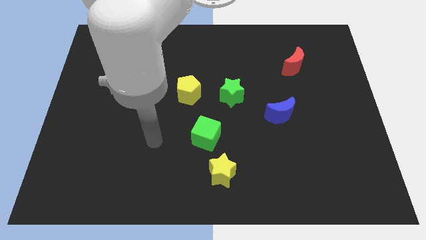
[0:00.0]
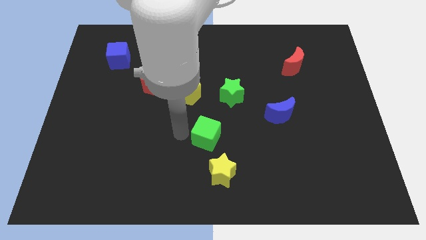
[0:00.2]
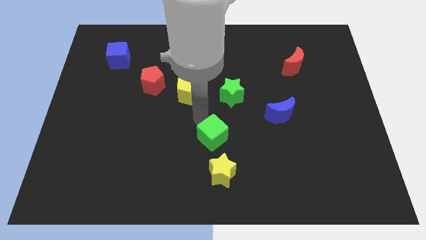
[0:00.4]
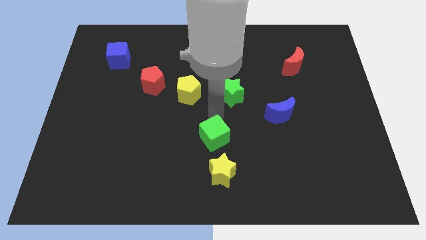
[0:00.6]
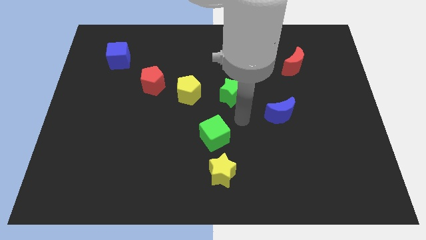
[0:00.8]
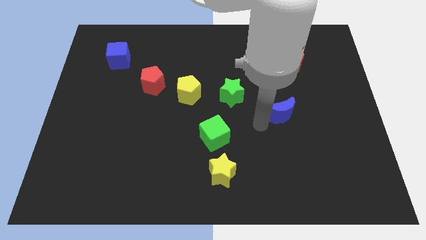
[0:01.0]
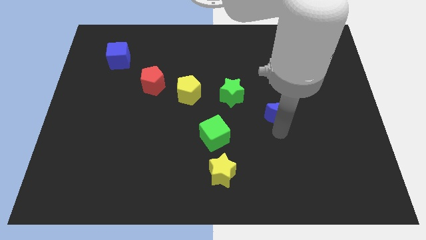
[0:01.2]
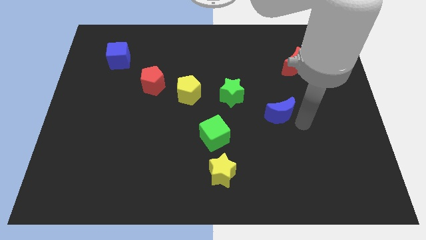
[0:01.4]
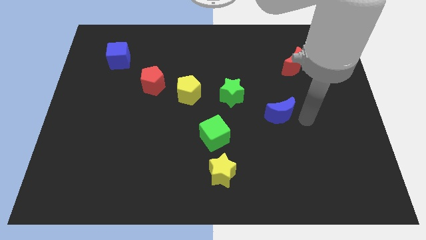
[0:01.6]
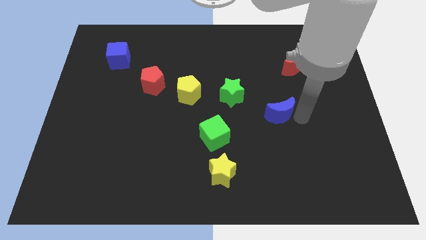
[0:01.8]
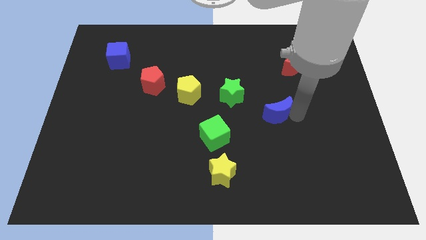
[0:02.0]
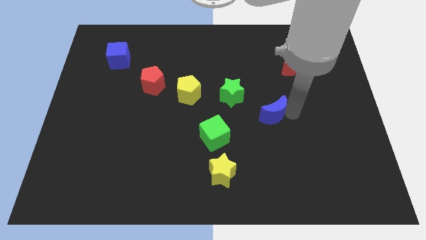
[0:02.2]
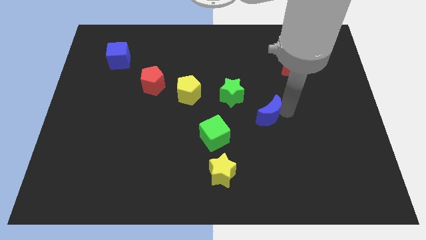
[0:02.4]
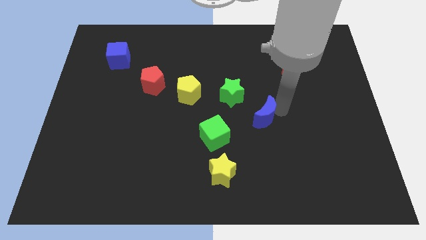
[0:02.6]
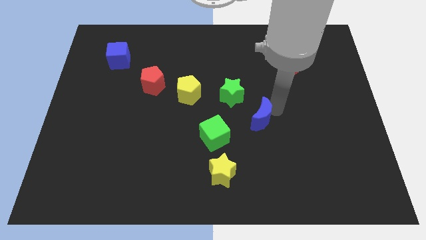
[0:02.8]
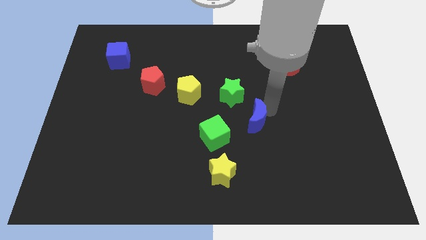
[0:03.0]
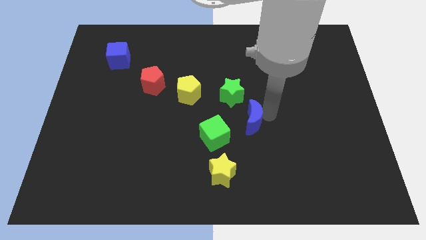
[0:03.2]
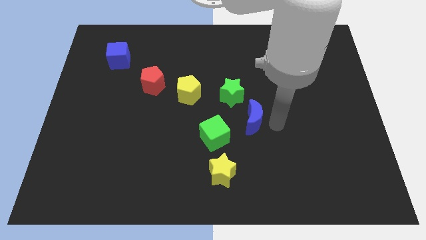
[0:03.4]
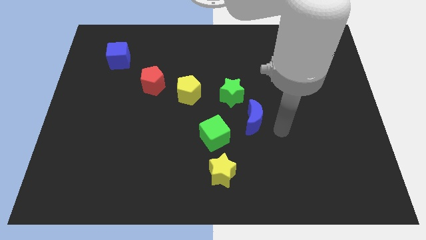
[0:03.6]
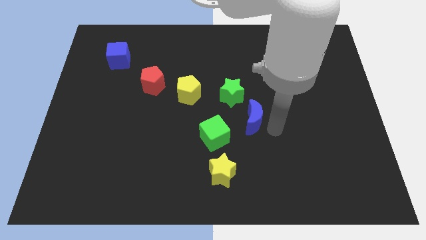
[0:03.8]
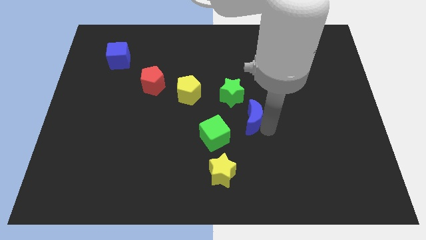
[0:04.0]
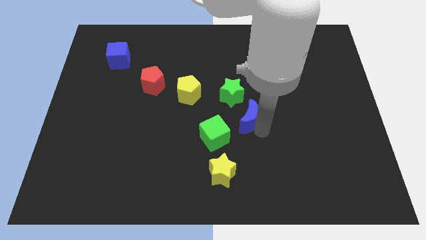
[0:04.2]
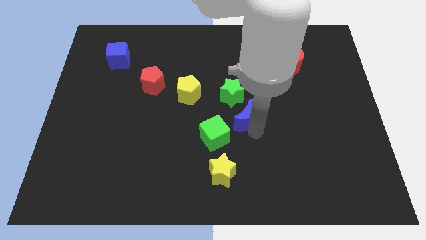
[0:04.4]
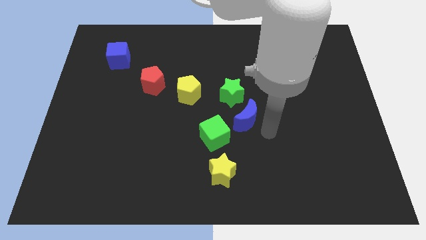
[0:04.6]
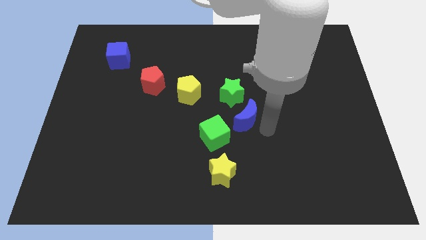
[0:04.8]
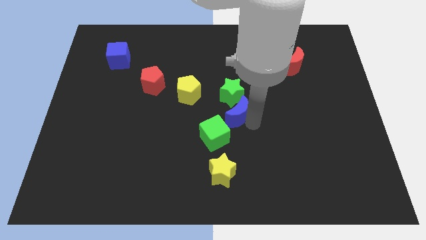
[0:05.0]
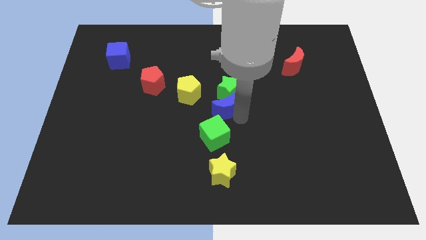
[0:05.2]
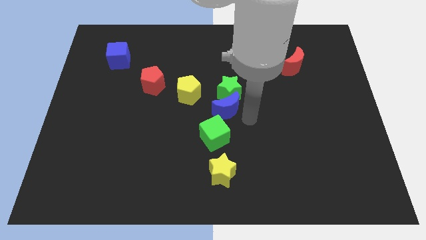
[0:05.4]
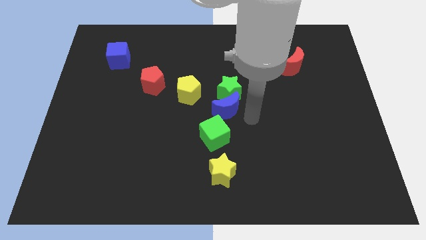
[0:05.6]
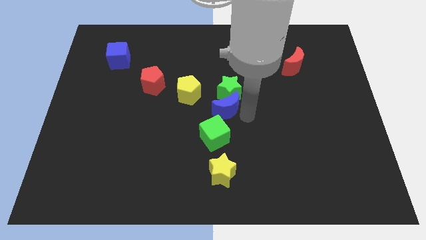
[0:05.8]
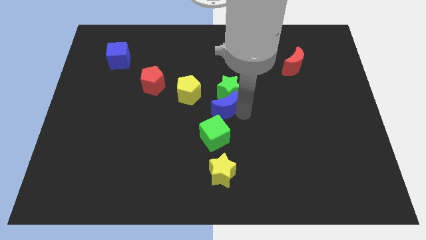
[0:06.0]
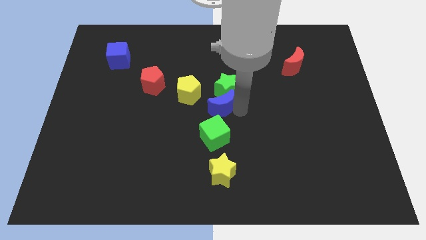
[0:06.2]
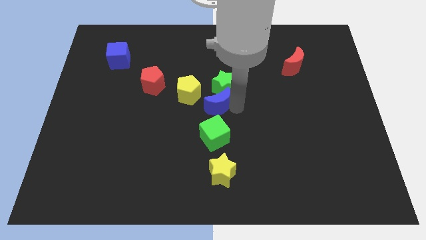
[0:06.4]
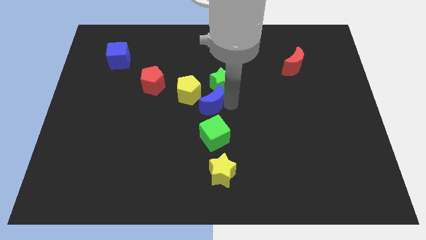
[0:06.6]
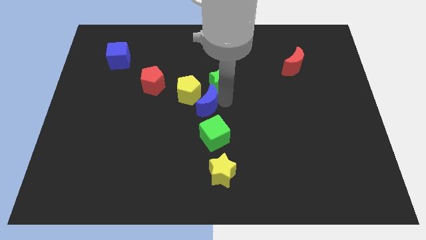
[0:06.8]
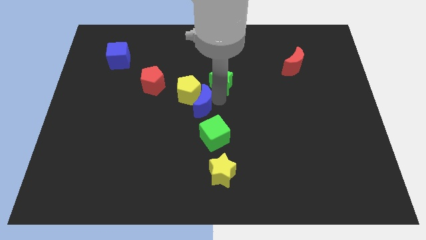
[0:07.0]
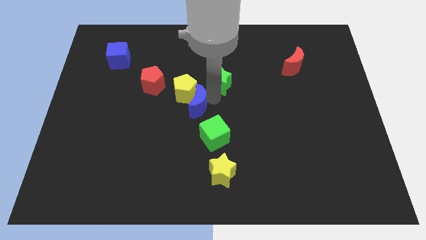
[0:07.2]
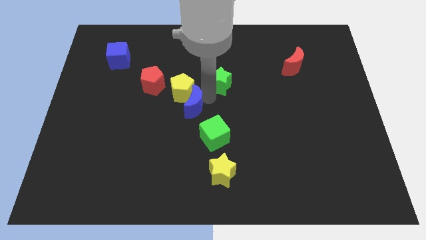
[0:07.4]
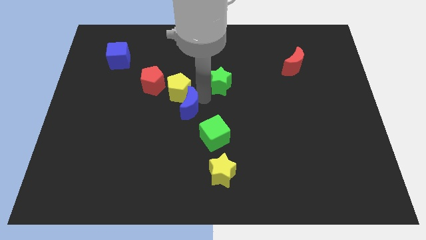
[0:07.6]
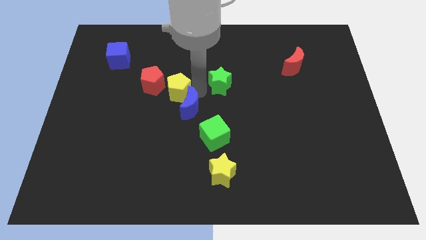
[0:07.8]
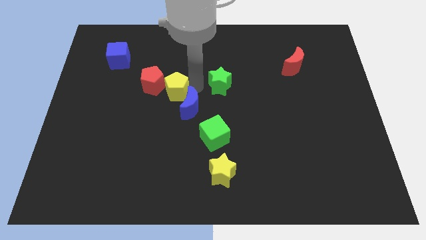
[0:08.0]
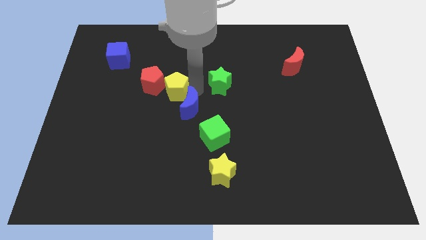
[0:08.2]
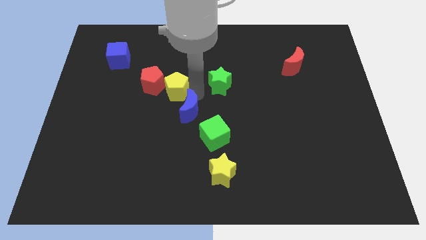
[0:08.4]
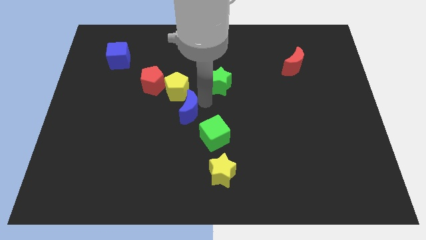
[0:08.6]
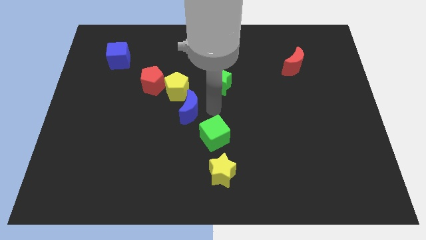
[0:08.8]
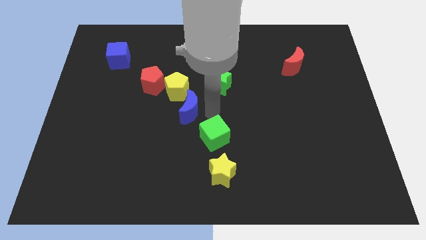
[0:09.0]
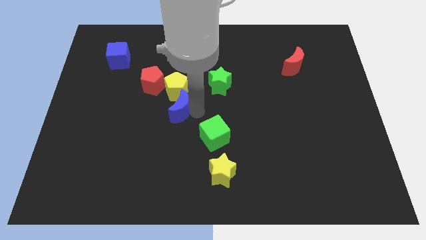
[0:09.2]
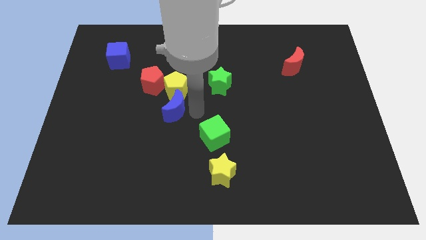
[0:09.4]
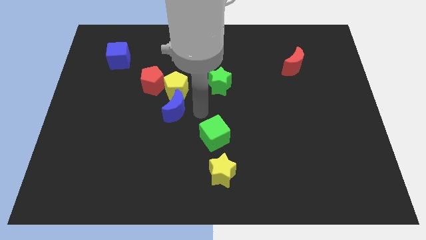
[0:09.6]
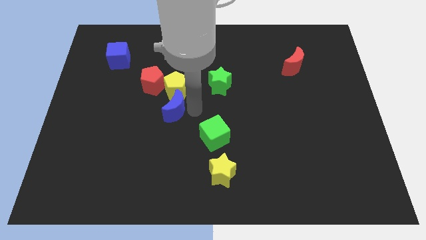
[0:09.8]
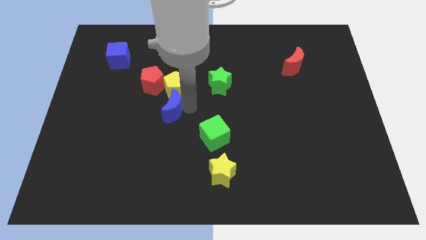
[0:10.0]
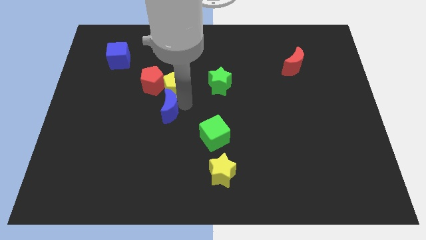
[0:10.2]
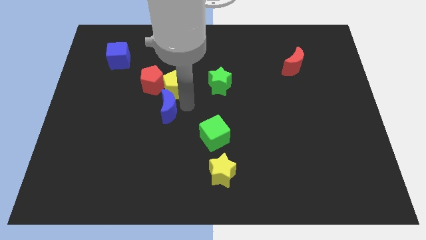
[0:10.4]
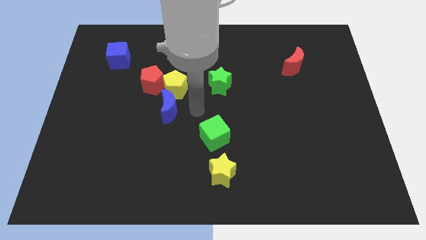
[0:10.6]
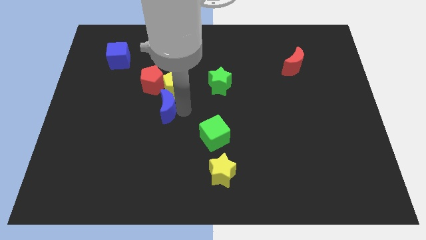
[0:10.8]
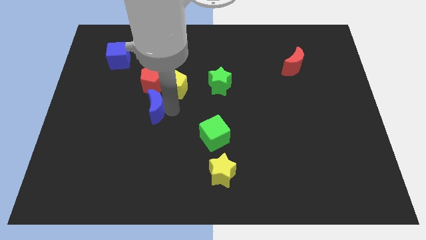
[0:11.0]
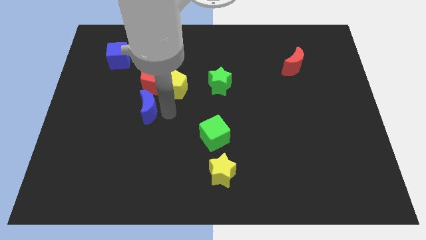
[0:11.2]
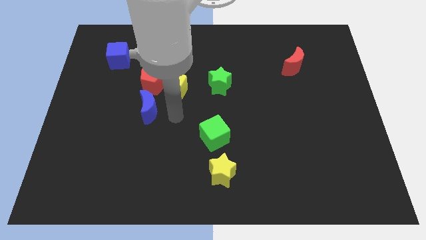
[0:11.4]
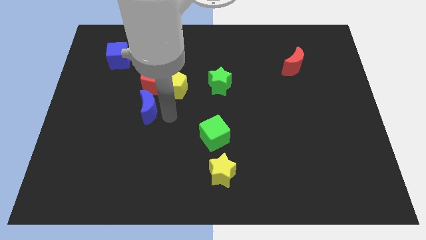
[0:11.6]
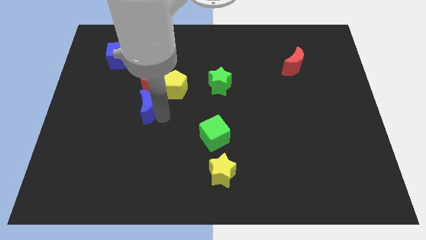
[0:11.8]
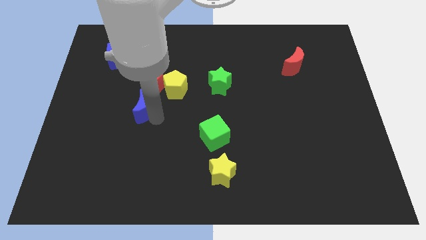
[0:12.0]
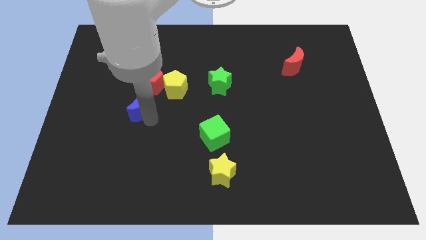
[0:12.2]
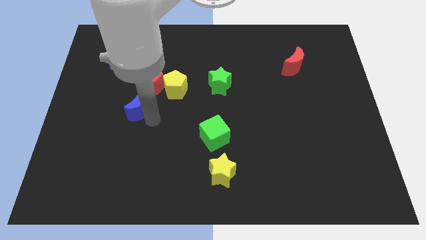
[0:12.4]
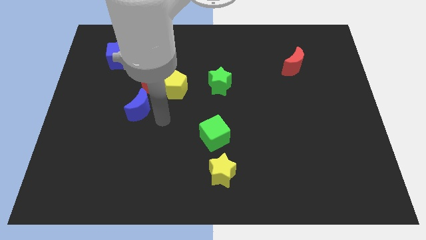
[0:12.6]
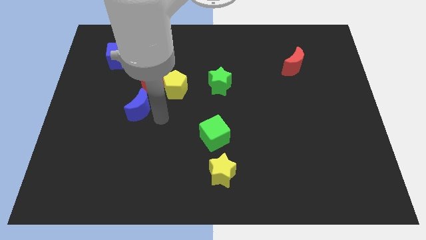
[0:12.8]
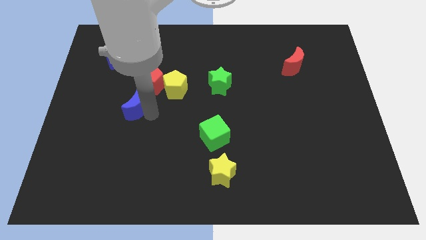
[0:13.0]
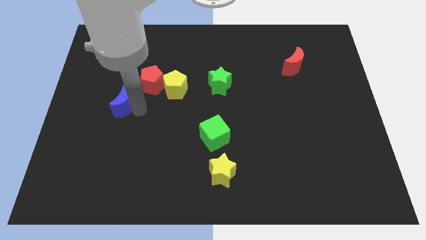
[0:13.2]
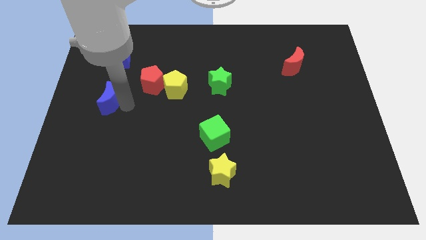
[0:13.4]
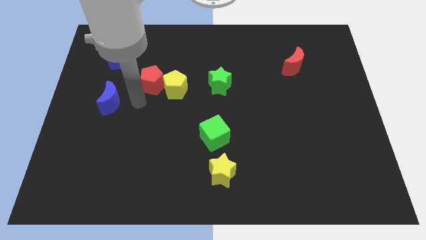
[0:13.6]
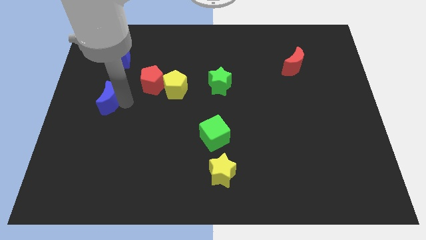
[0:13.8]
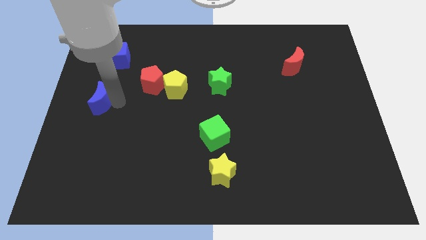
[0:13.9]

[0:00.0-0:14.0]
slide the blue moon to the center left
